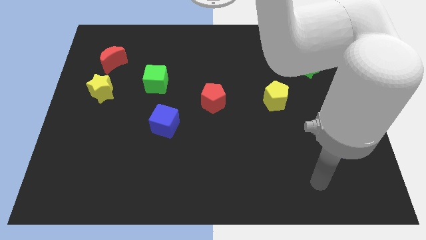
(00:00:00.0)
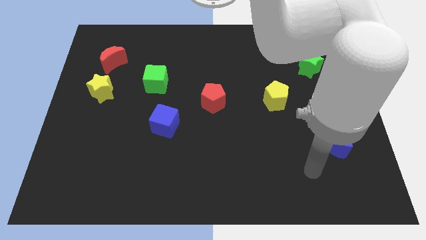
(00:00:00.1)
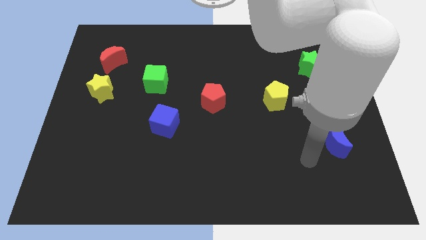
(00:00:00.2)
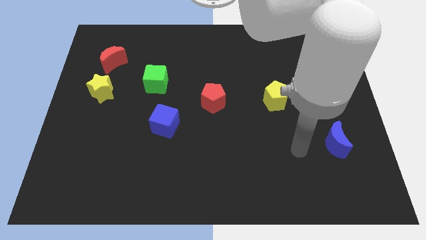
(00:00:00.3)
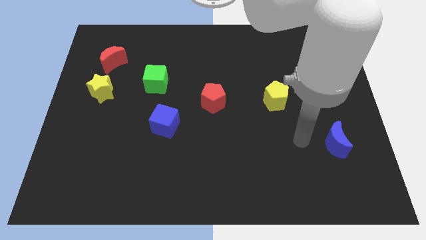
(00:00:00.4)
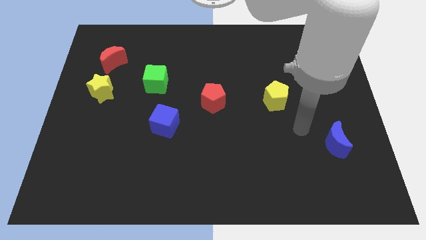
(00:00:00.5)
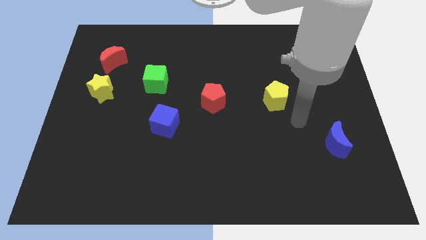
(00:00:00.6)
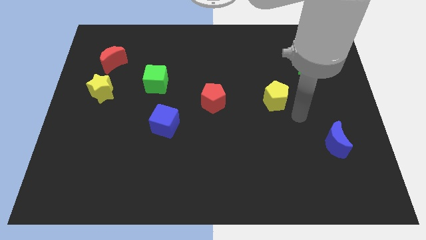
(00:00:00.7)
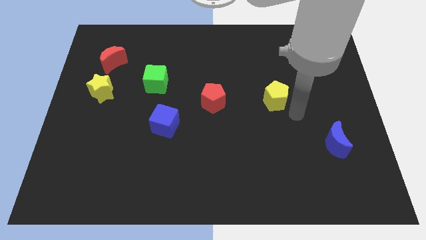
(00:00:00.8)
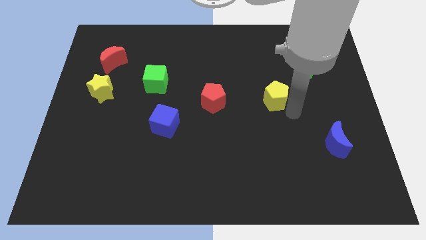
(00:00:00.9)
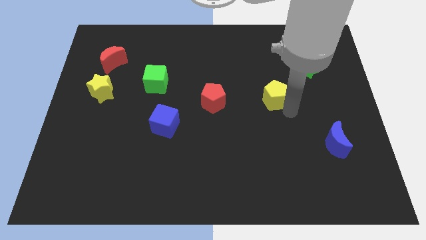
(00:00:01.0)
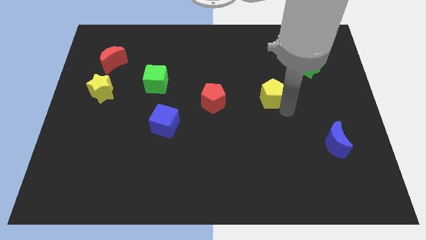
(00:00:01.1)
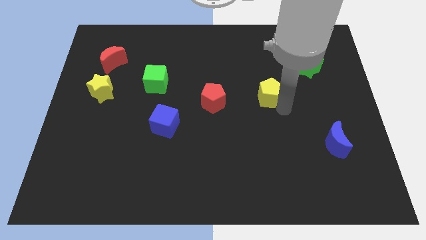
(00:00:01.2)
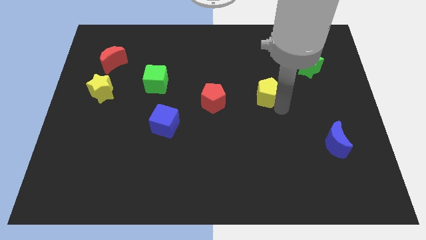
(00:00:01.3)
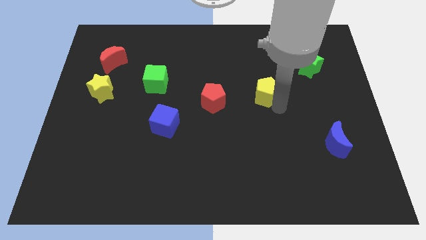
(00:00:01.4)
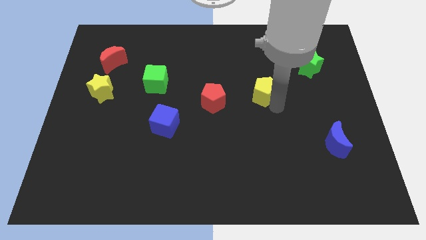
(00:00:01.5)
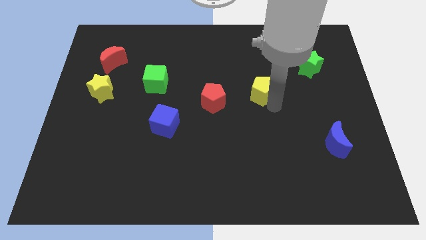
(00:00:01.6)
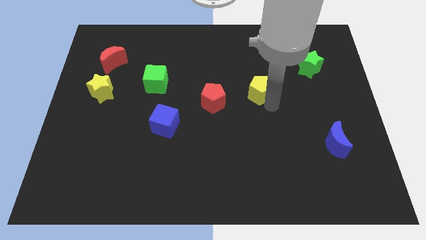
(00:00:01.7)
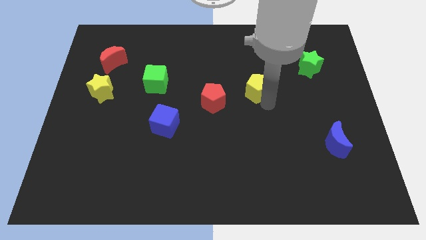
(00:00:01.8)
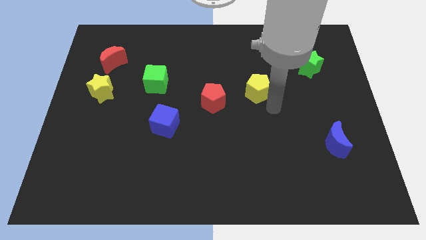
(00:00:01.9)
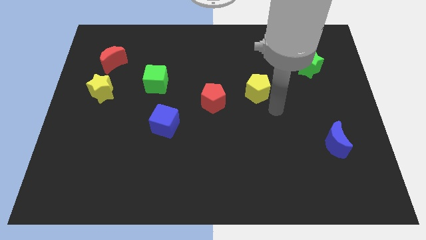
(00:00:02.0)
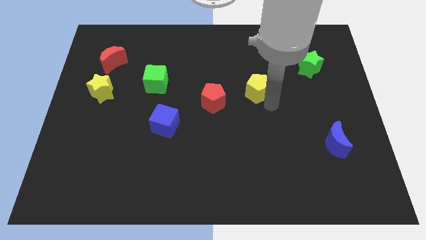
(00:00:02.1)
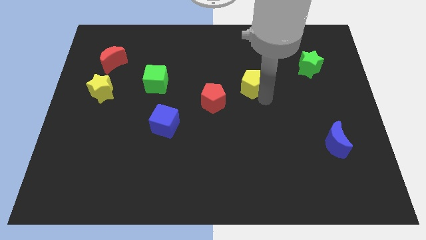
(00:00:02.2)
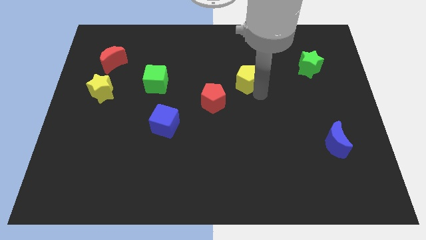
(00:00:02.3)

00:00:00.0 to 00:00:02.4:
slightly move the yellow pentagon upwards and left

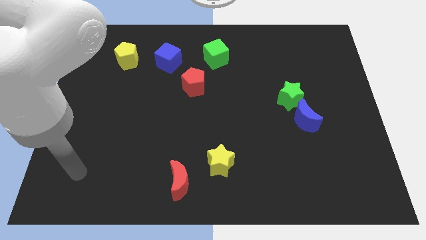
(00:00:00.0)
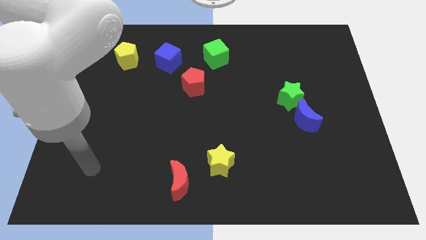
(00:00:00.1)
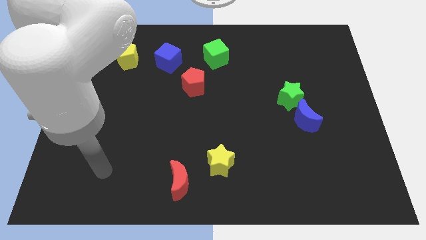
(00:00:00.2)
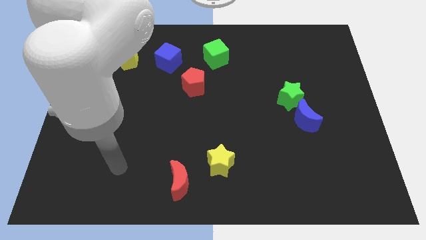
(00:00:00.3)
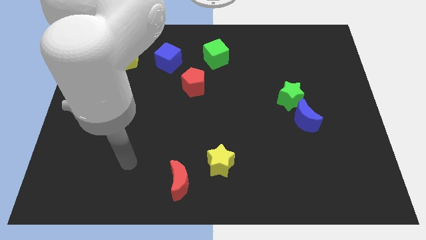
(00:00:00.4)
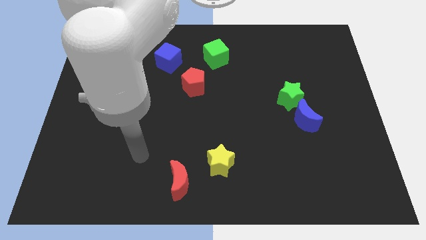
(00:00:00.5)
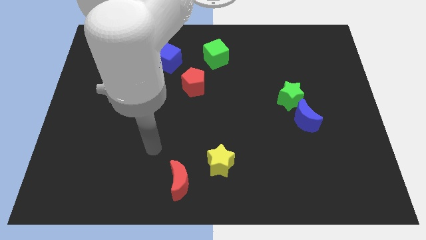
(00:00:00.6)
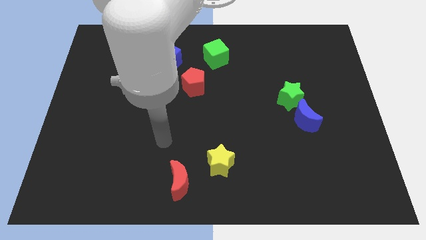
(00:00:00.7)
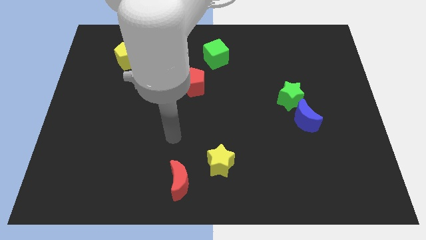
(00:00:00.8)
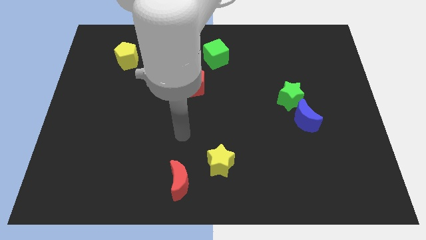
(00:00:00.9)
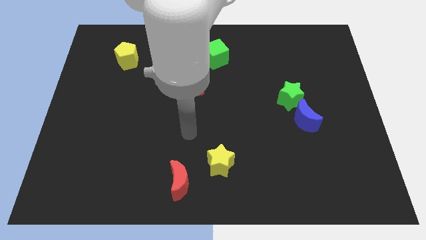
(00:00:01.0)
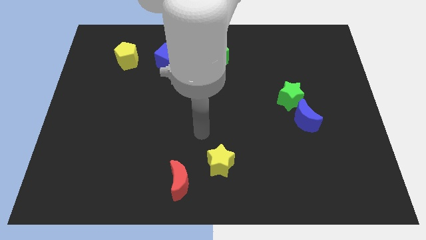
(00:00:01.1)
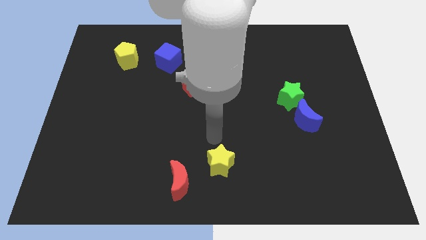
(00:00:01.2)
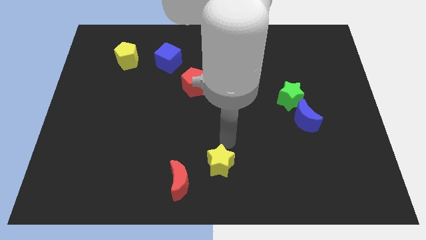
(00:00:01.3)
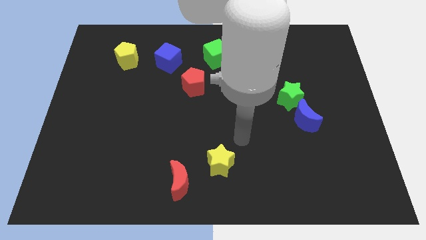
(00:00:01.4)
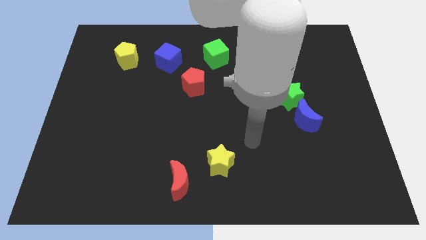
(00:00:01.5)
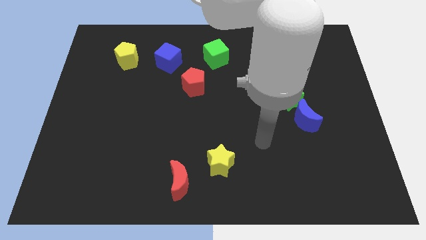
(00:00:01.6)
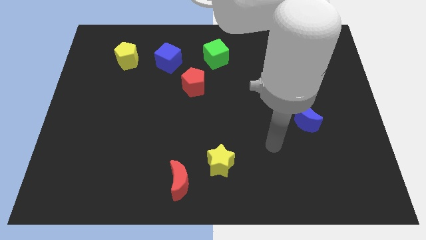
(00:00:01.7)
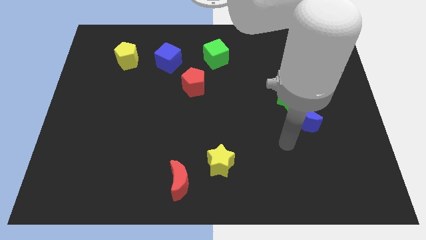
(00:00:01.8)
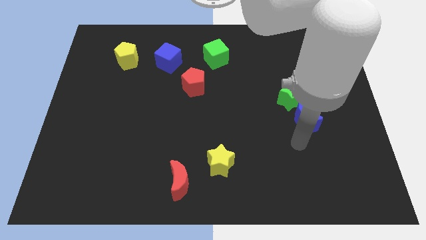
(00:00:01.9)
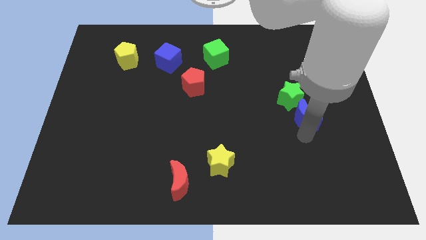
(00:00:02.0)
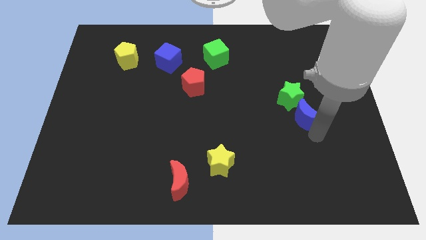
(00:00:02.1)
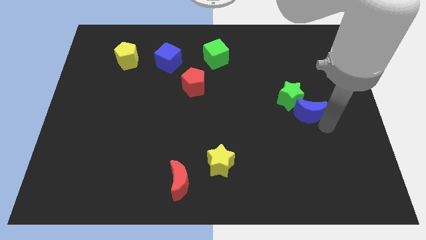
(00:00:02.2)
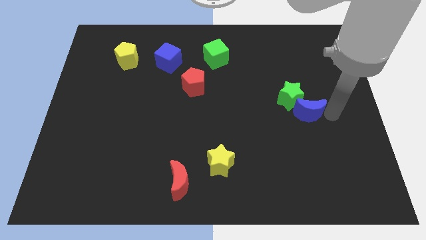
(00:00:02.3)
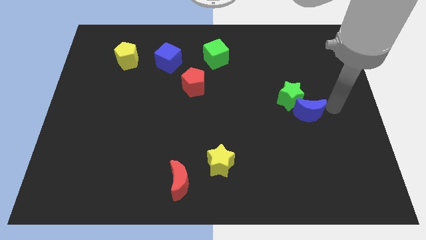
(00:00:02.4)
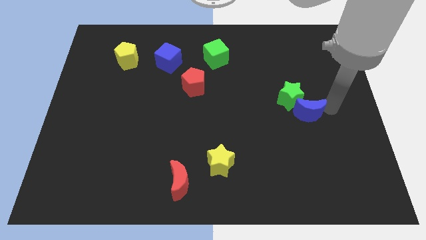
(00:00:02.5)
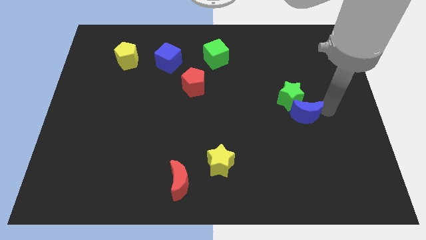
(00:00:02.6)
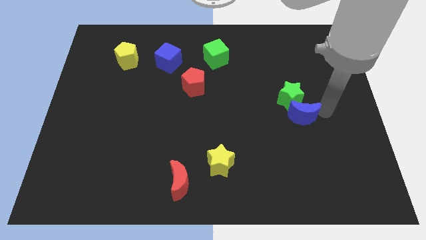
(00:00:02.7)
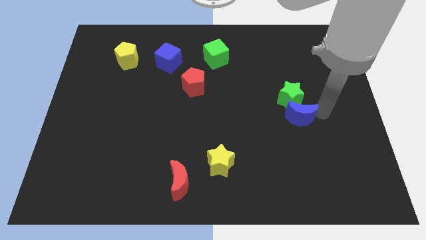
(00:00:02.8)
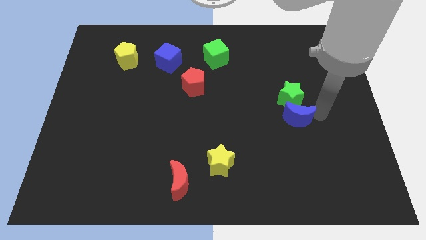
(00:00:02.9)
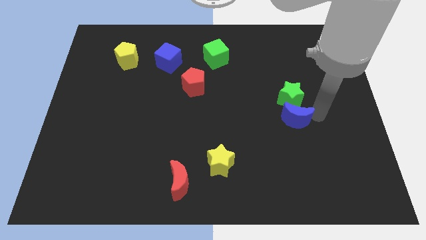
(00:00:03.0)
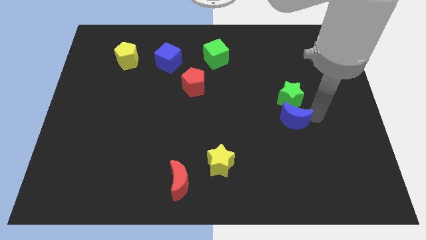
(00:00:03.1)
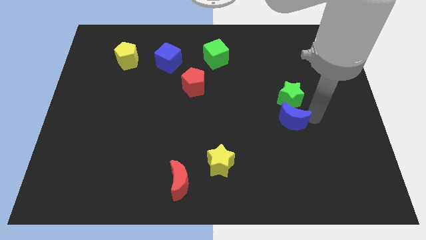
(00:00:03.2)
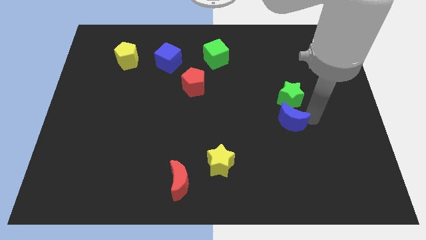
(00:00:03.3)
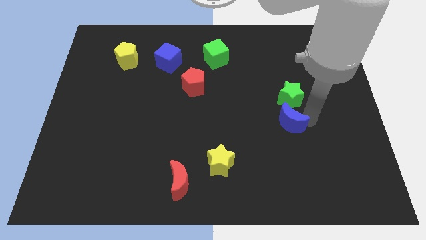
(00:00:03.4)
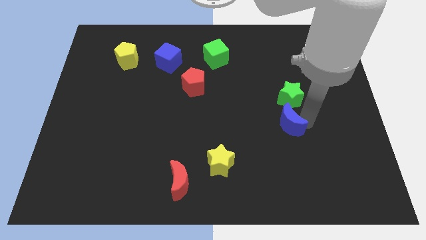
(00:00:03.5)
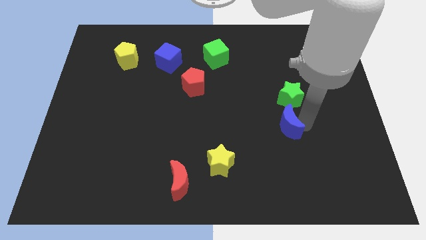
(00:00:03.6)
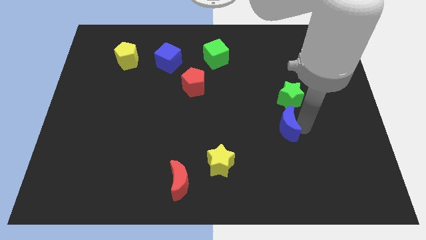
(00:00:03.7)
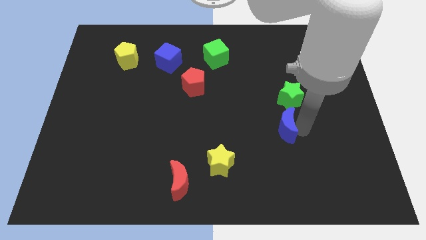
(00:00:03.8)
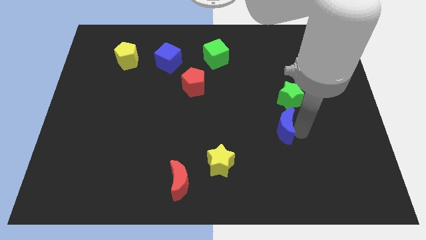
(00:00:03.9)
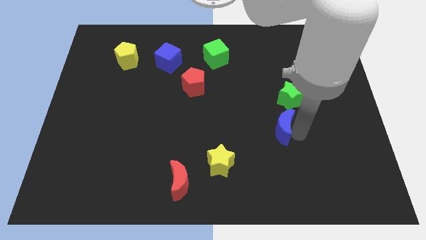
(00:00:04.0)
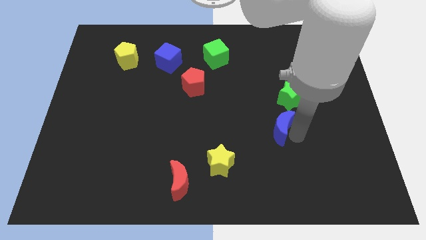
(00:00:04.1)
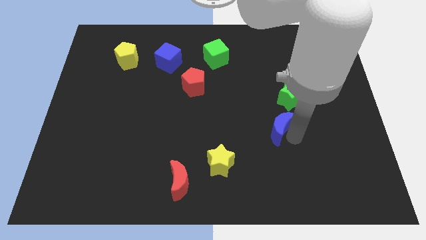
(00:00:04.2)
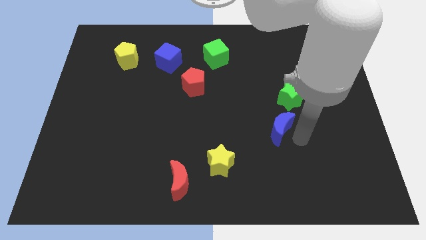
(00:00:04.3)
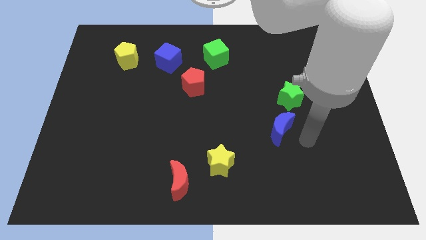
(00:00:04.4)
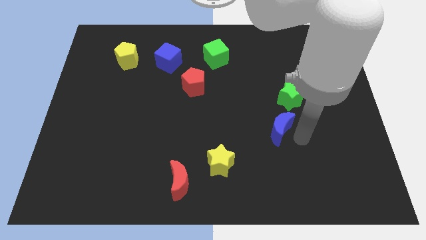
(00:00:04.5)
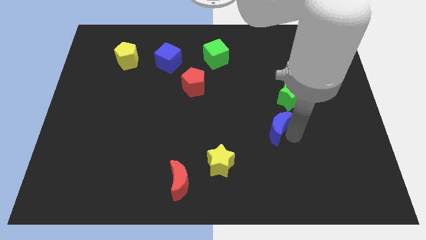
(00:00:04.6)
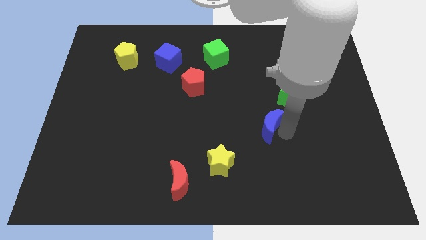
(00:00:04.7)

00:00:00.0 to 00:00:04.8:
slightly push the blue moon left

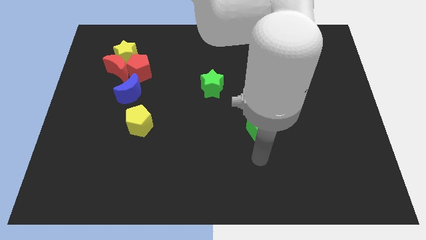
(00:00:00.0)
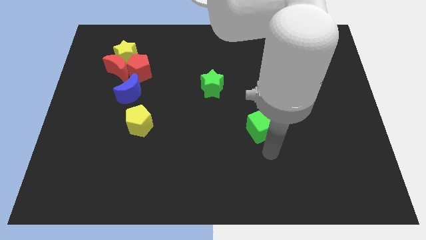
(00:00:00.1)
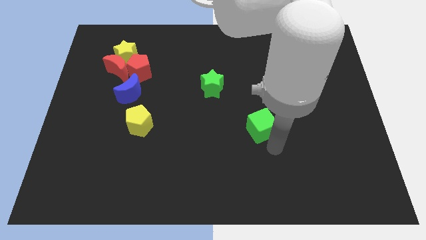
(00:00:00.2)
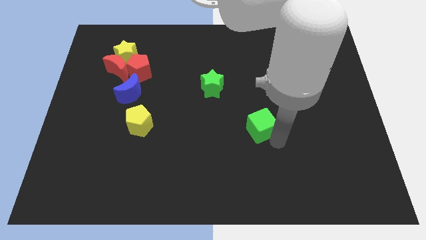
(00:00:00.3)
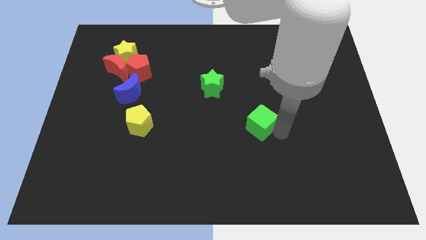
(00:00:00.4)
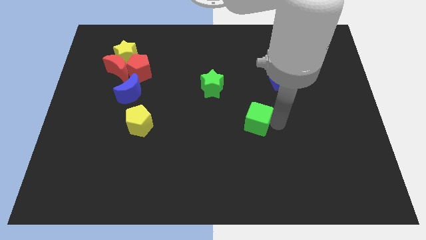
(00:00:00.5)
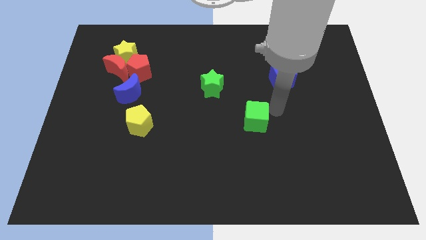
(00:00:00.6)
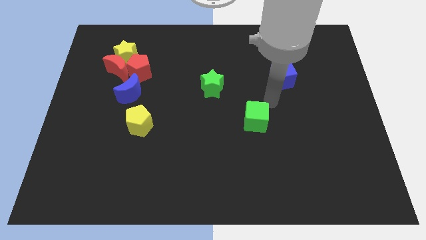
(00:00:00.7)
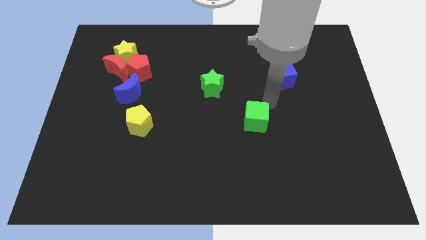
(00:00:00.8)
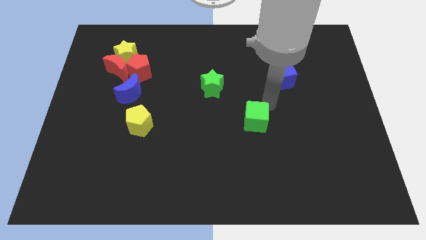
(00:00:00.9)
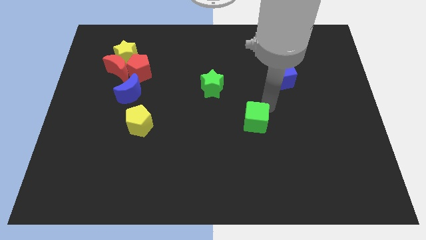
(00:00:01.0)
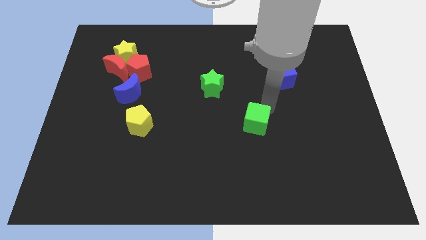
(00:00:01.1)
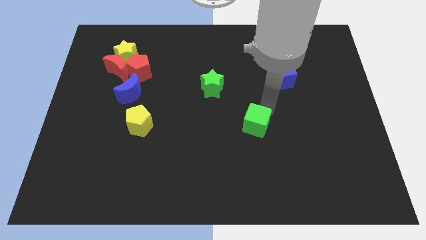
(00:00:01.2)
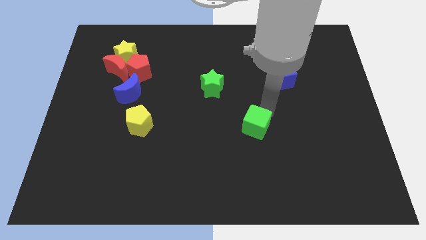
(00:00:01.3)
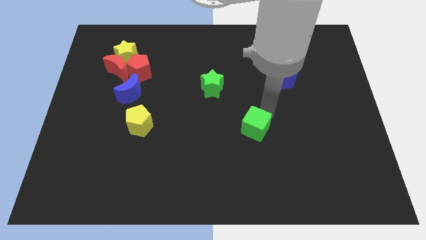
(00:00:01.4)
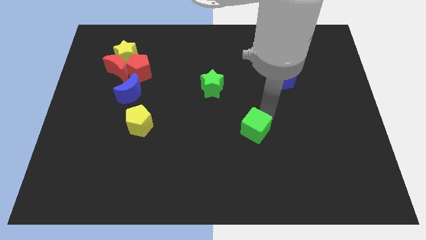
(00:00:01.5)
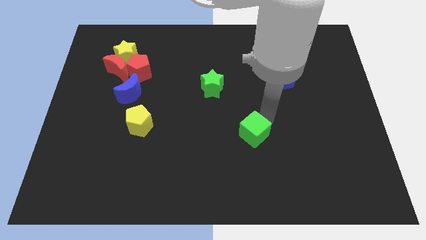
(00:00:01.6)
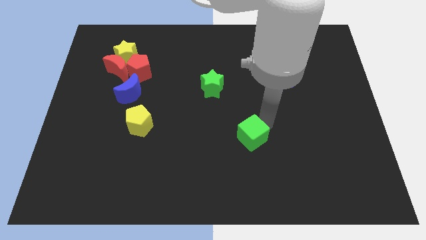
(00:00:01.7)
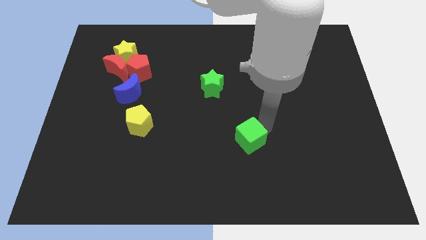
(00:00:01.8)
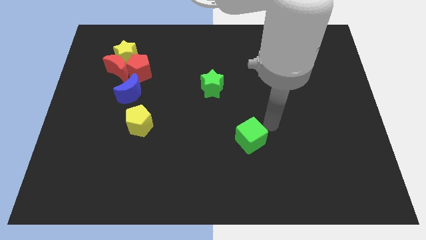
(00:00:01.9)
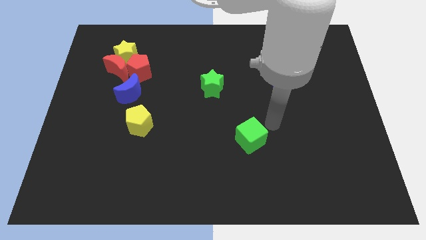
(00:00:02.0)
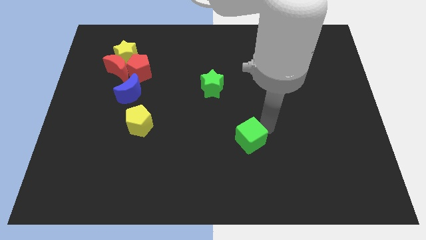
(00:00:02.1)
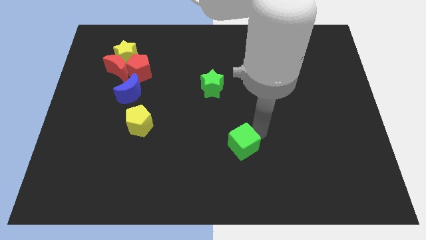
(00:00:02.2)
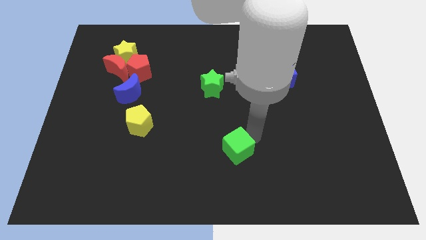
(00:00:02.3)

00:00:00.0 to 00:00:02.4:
slightly move the green cube diagonally down and to the left
